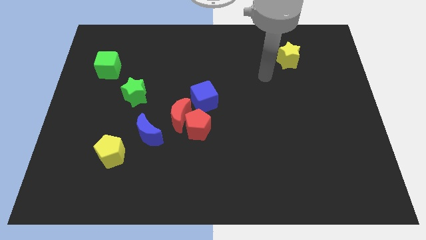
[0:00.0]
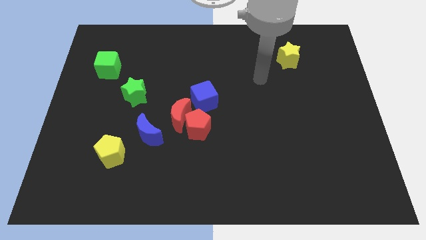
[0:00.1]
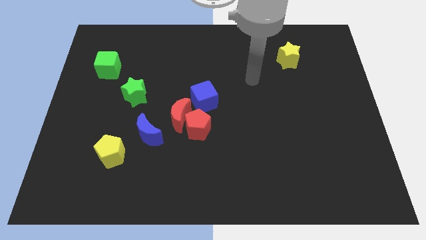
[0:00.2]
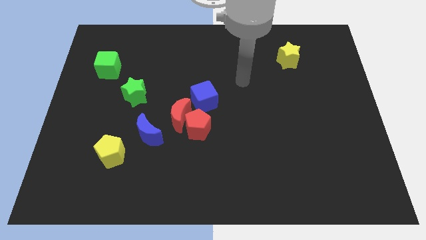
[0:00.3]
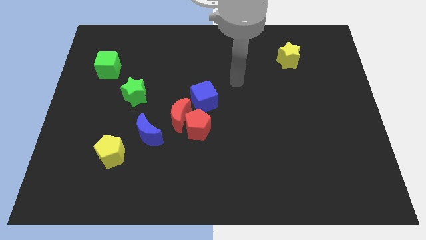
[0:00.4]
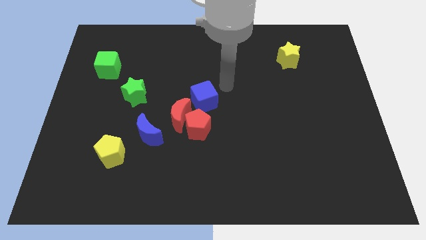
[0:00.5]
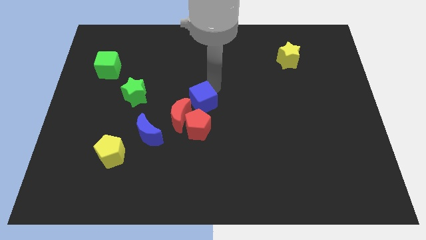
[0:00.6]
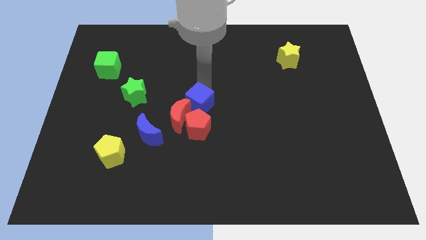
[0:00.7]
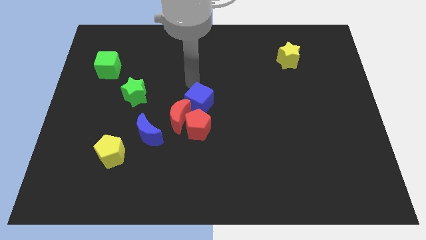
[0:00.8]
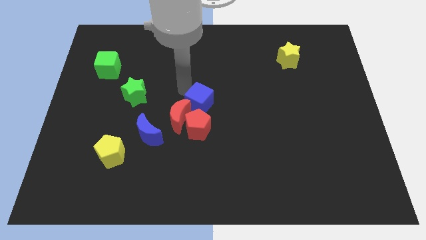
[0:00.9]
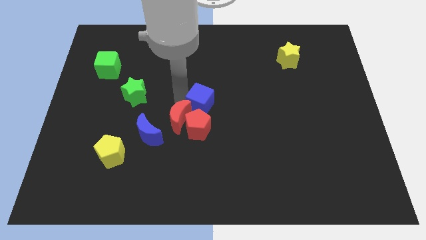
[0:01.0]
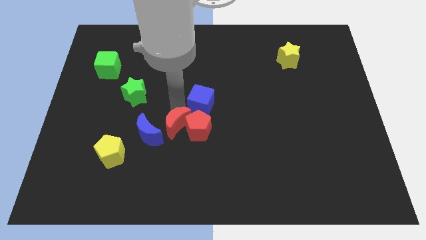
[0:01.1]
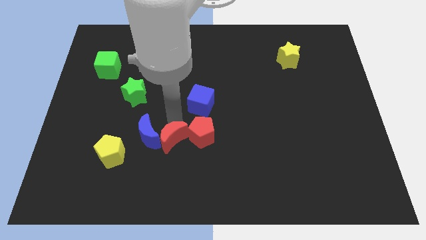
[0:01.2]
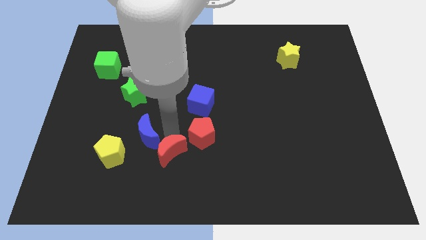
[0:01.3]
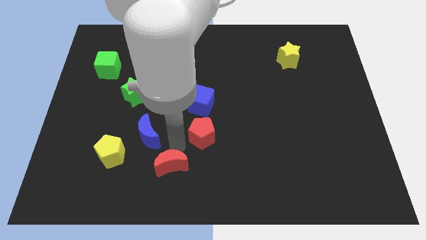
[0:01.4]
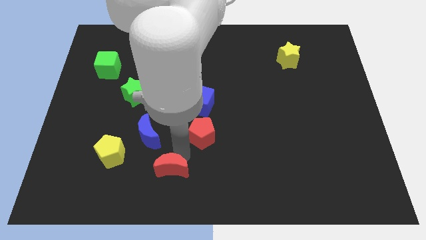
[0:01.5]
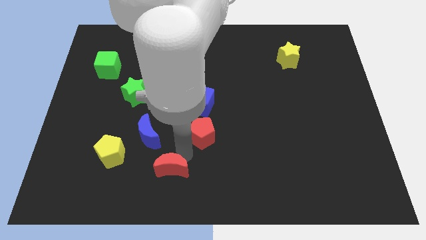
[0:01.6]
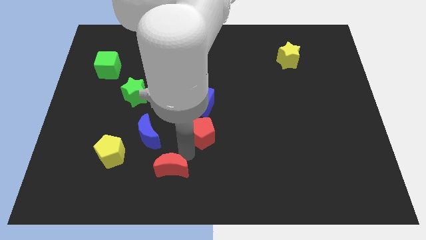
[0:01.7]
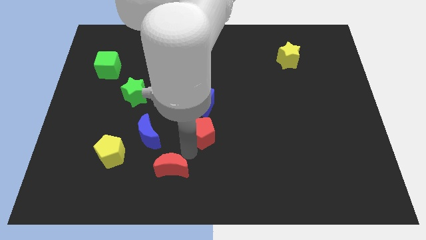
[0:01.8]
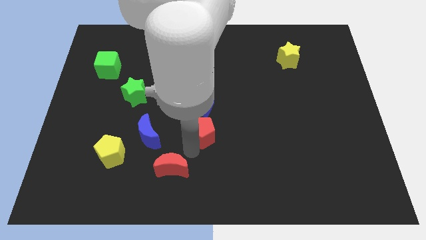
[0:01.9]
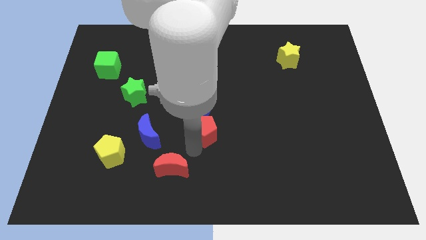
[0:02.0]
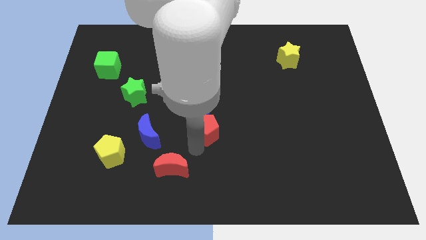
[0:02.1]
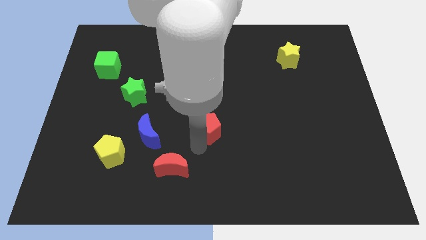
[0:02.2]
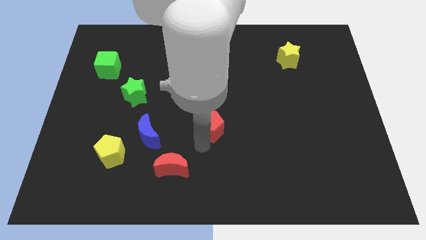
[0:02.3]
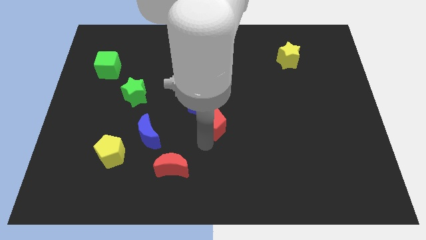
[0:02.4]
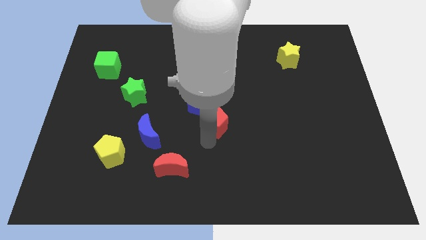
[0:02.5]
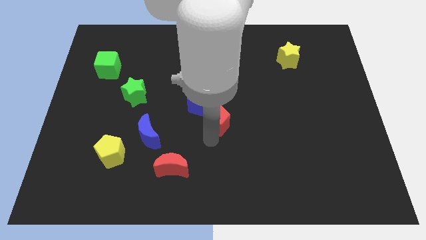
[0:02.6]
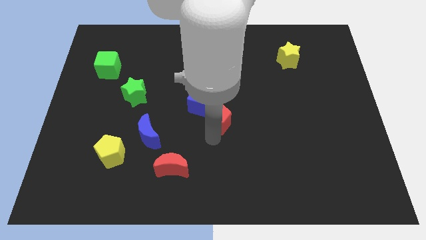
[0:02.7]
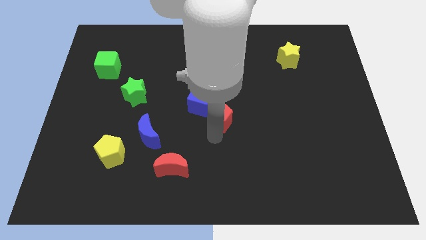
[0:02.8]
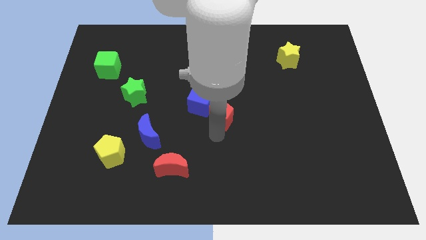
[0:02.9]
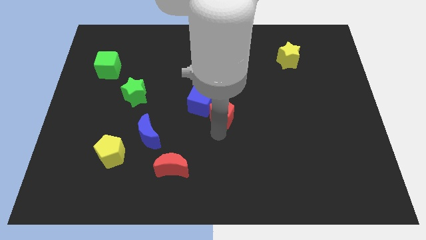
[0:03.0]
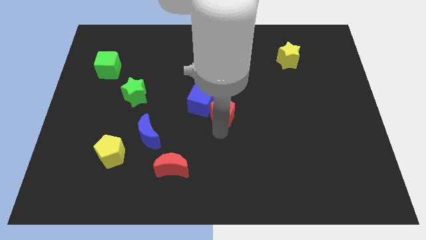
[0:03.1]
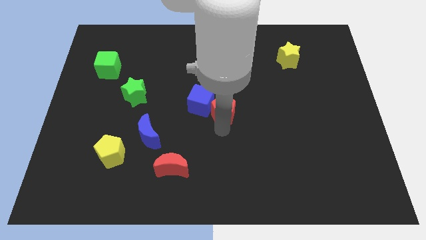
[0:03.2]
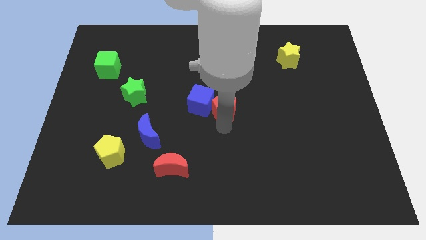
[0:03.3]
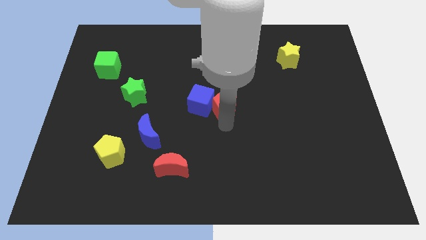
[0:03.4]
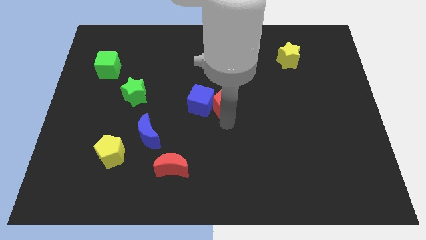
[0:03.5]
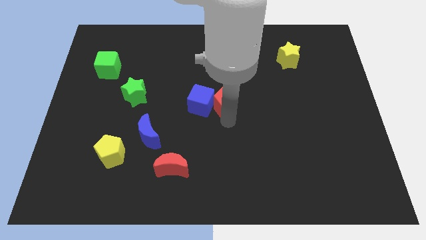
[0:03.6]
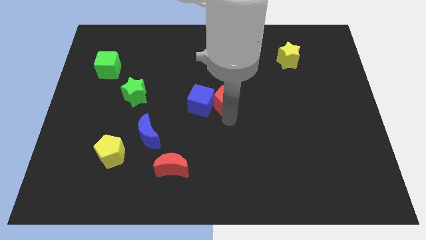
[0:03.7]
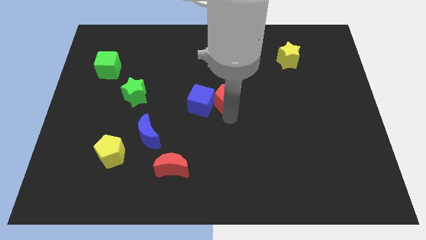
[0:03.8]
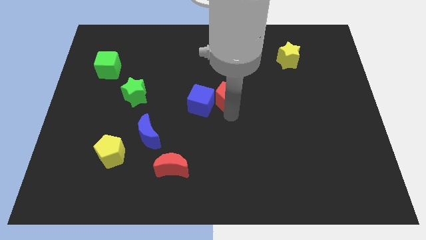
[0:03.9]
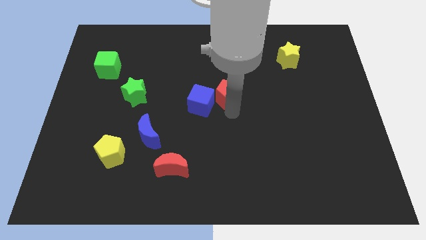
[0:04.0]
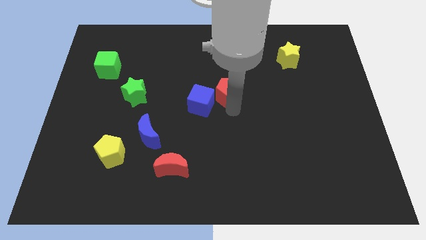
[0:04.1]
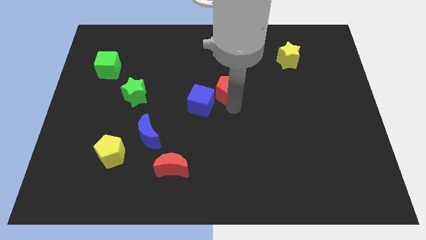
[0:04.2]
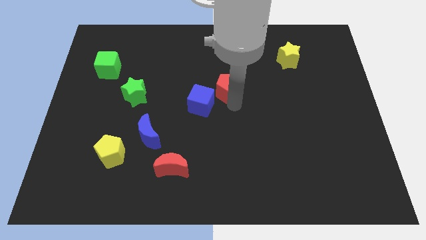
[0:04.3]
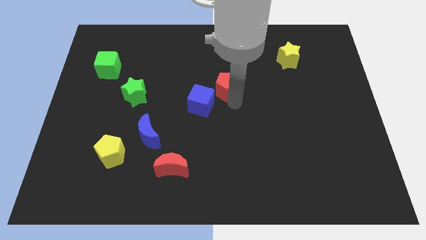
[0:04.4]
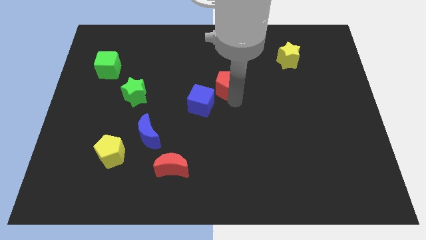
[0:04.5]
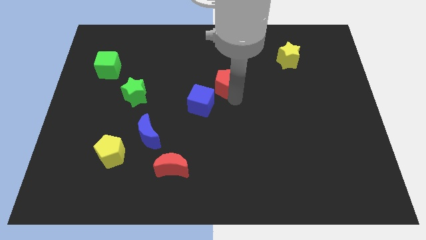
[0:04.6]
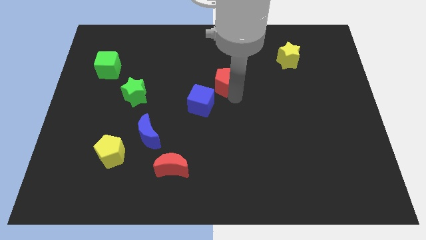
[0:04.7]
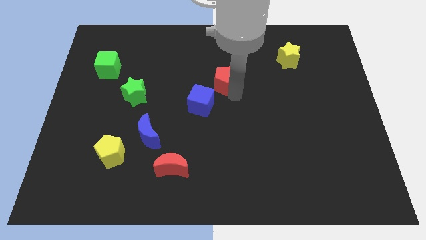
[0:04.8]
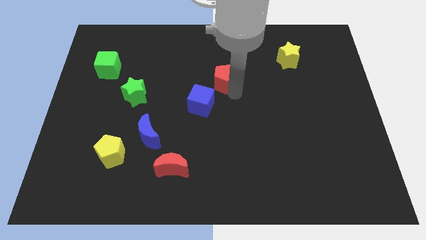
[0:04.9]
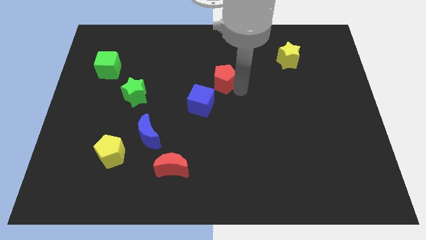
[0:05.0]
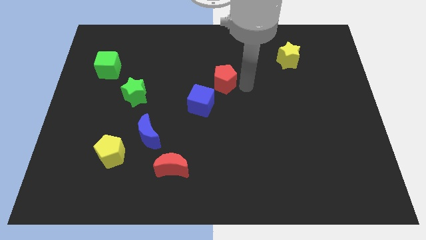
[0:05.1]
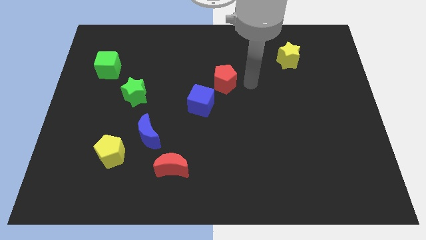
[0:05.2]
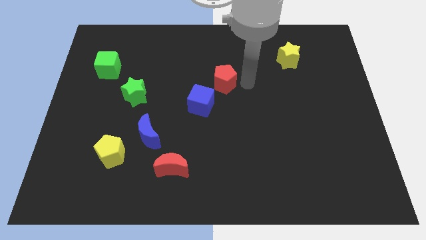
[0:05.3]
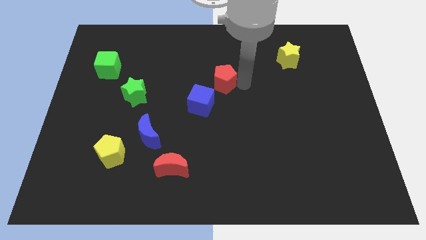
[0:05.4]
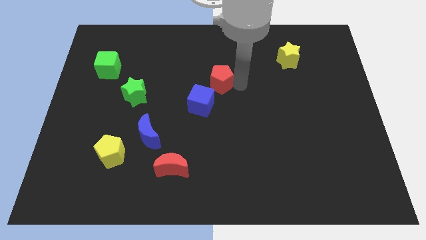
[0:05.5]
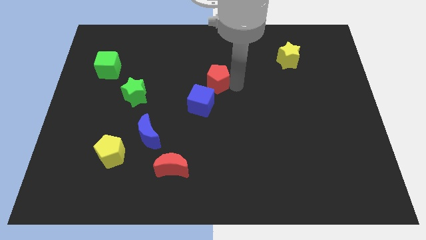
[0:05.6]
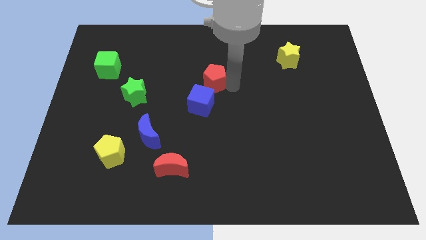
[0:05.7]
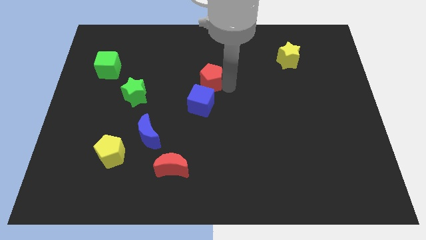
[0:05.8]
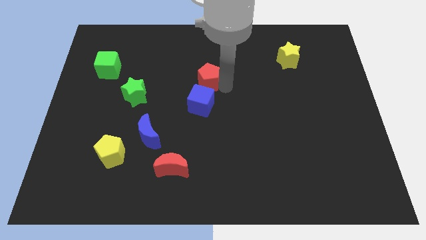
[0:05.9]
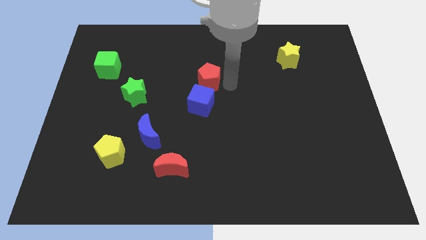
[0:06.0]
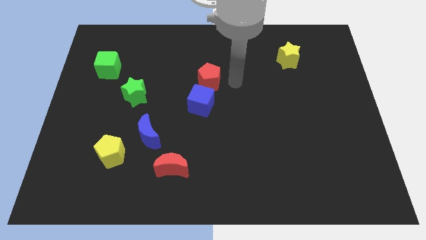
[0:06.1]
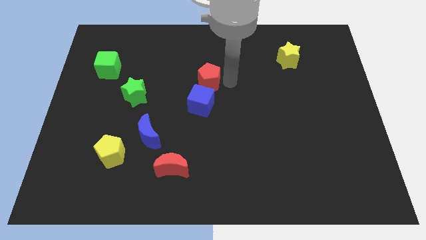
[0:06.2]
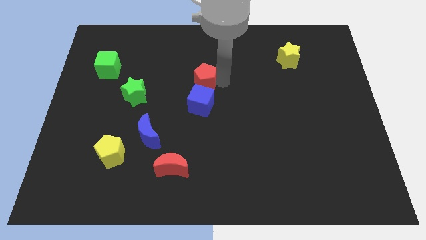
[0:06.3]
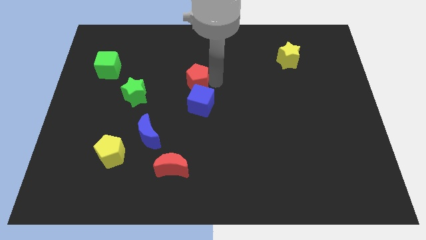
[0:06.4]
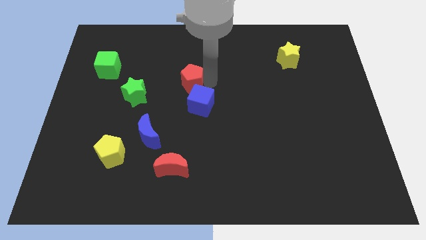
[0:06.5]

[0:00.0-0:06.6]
move the red pentagon upwards and then to the left a bit

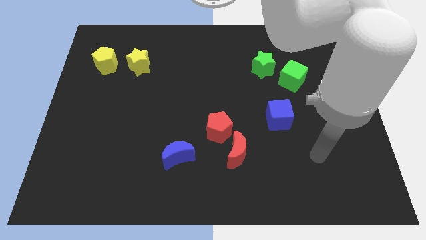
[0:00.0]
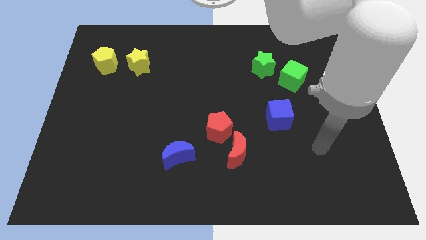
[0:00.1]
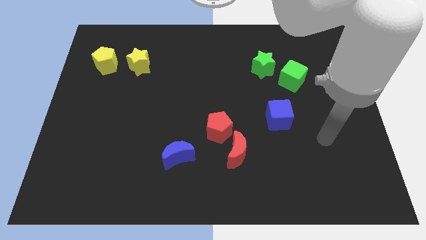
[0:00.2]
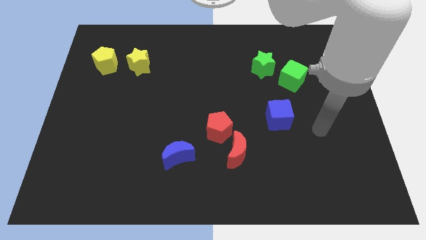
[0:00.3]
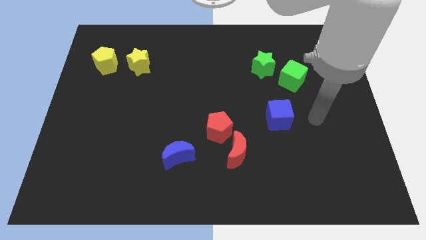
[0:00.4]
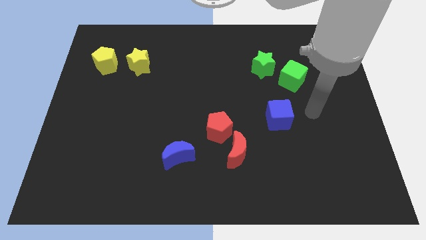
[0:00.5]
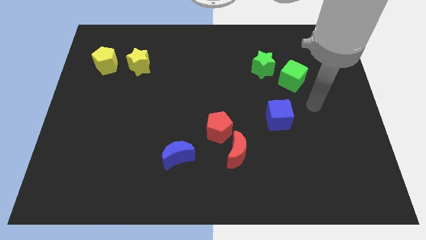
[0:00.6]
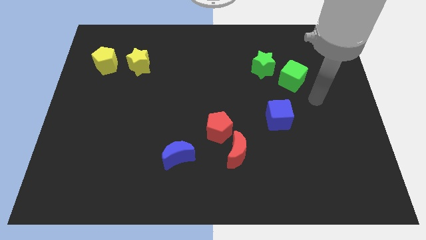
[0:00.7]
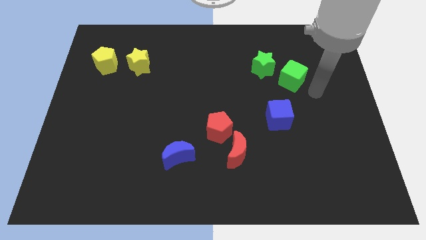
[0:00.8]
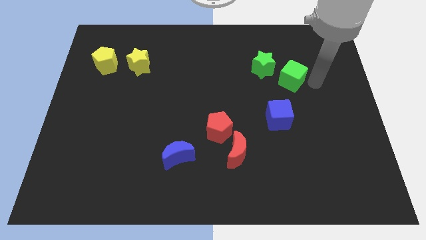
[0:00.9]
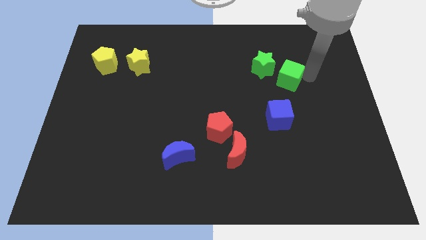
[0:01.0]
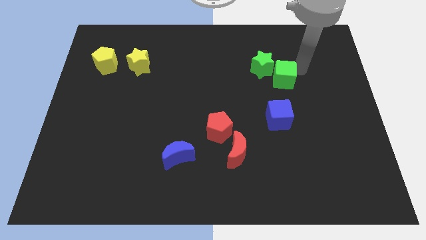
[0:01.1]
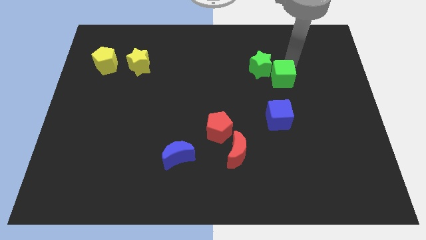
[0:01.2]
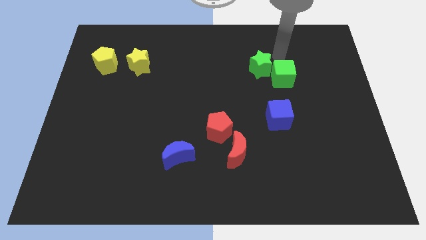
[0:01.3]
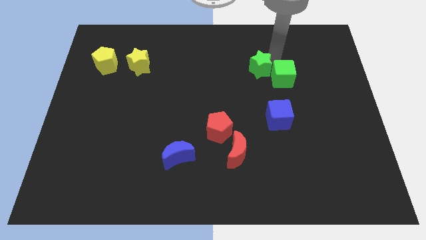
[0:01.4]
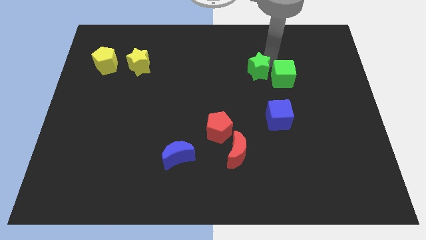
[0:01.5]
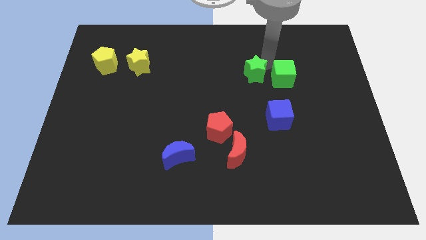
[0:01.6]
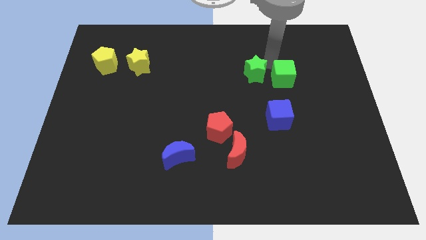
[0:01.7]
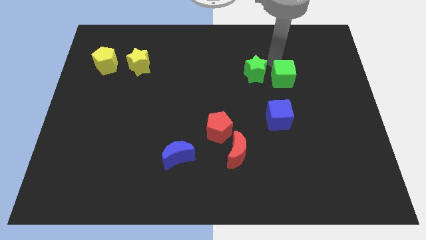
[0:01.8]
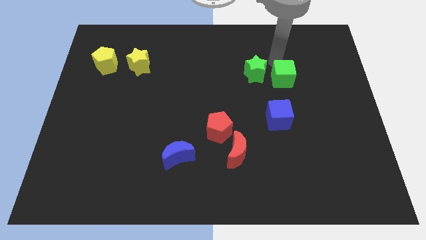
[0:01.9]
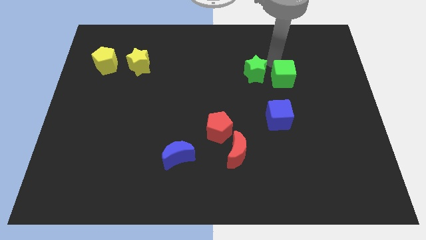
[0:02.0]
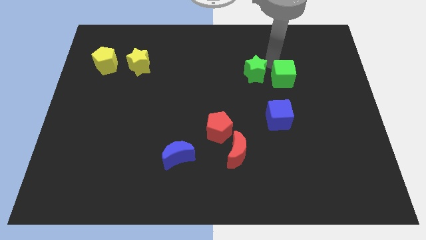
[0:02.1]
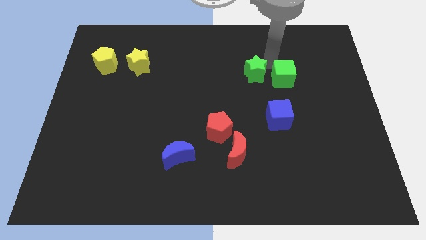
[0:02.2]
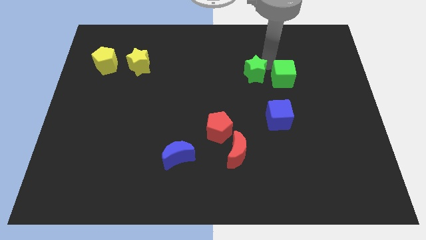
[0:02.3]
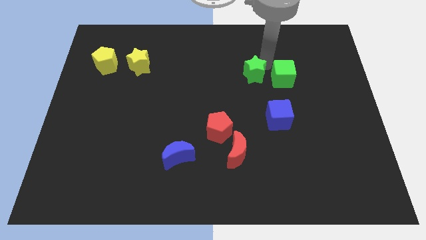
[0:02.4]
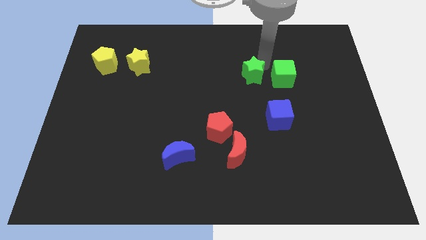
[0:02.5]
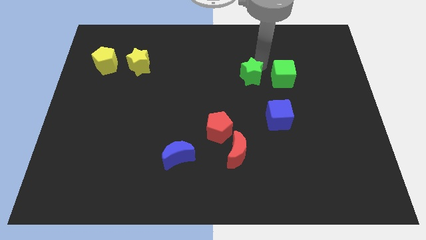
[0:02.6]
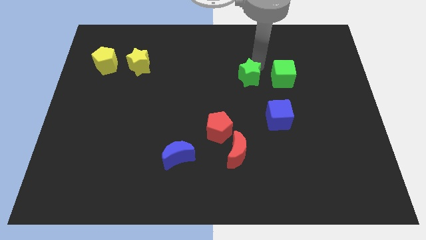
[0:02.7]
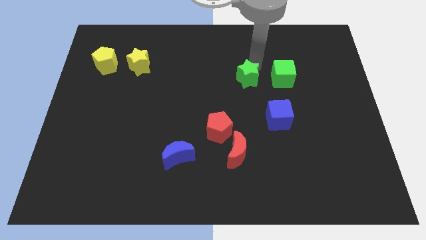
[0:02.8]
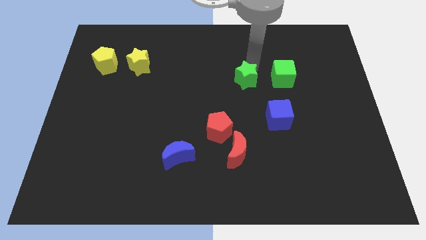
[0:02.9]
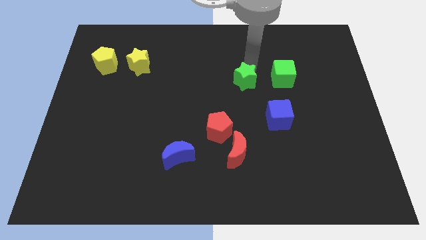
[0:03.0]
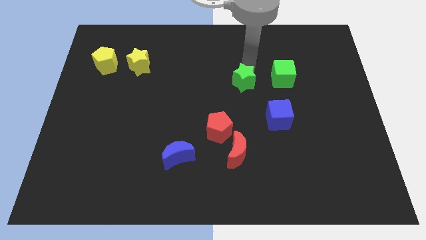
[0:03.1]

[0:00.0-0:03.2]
slightly move the green star downwards and then left
